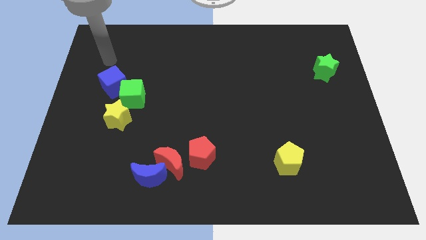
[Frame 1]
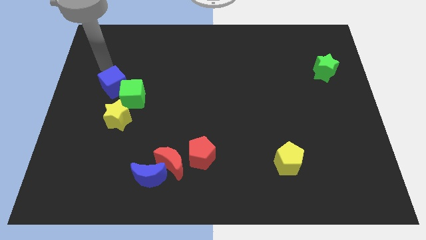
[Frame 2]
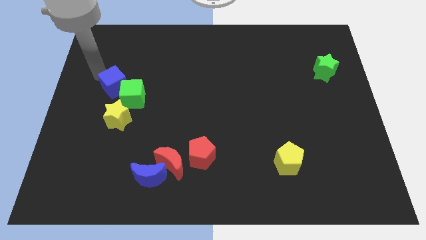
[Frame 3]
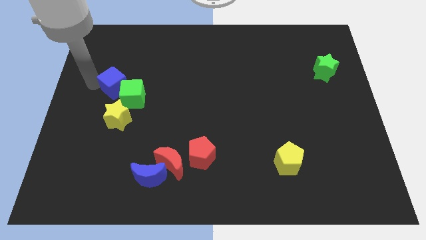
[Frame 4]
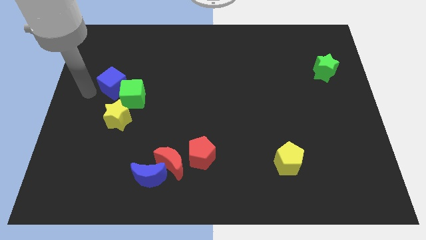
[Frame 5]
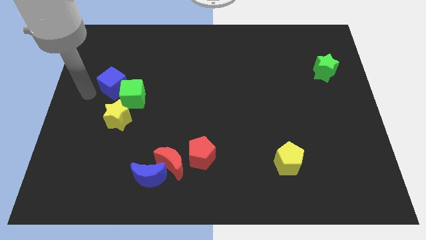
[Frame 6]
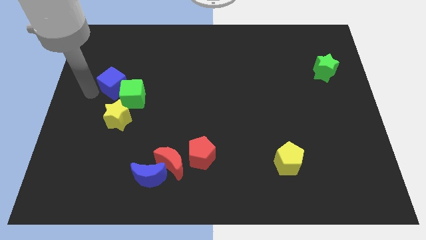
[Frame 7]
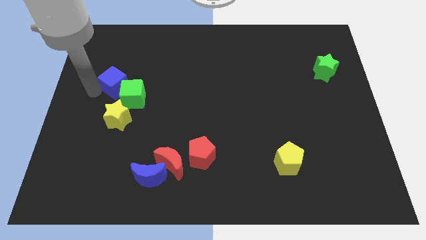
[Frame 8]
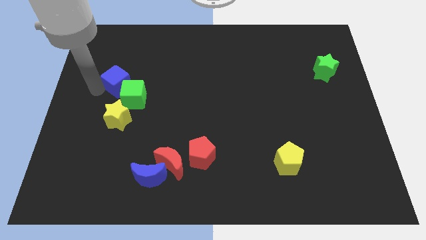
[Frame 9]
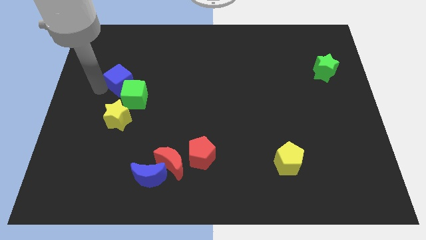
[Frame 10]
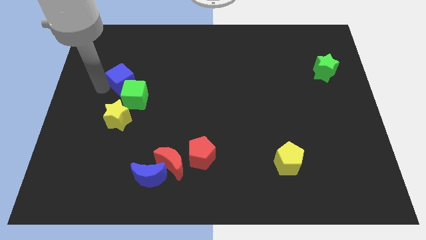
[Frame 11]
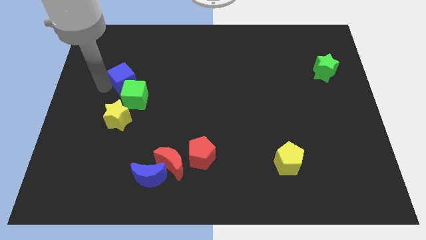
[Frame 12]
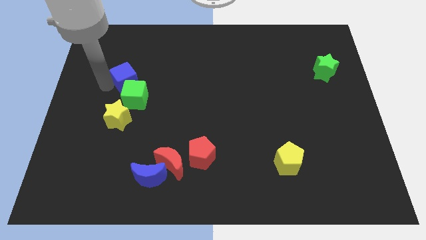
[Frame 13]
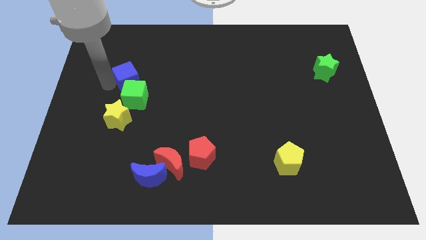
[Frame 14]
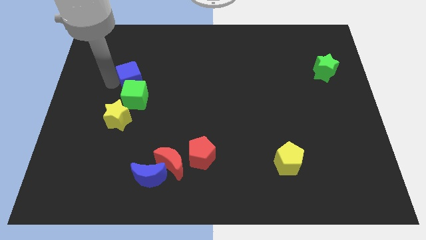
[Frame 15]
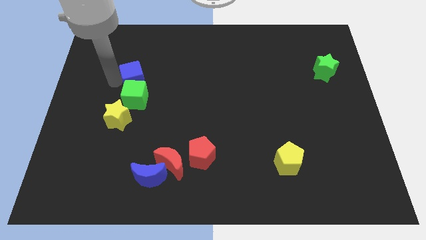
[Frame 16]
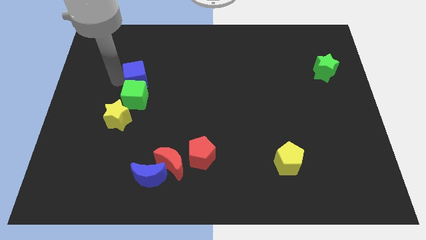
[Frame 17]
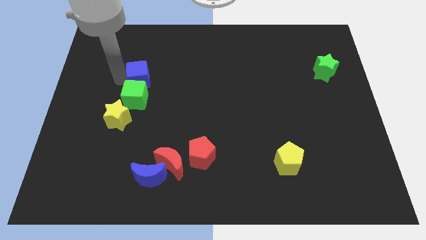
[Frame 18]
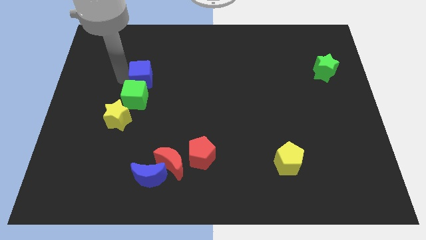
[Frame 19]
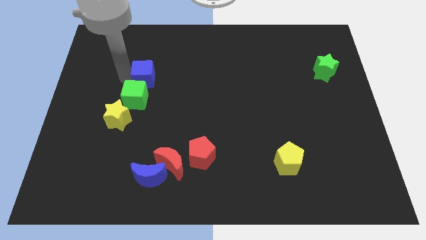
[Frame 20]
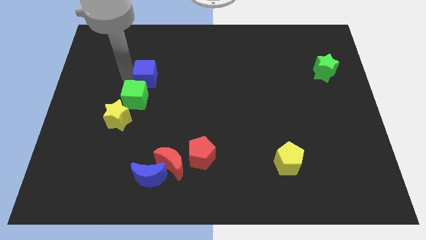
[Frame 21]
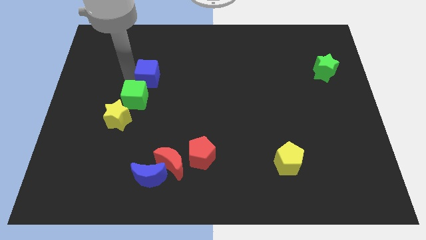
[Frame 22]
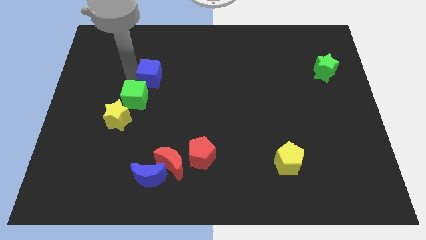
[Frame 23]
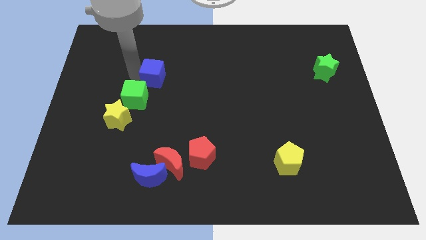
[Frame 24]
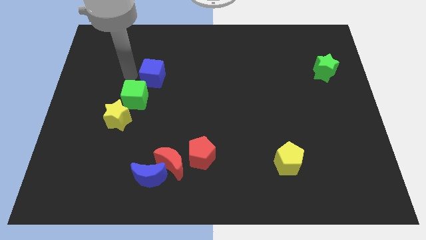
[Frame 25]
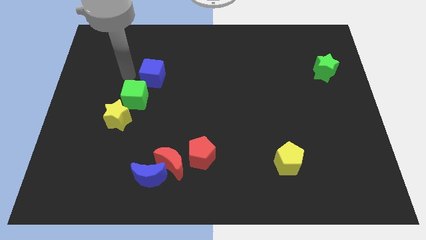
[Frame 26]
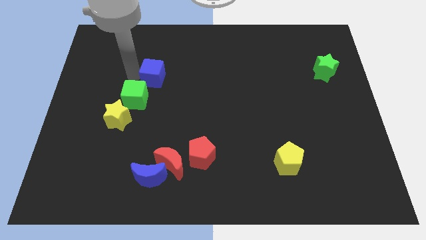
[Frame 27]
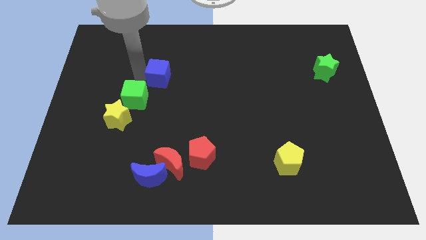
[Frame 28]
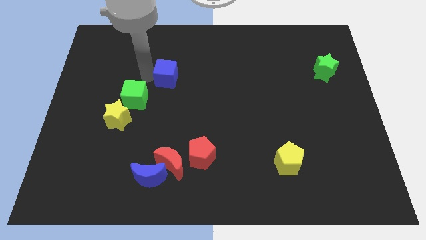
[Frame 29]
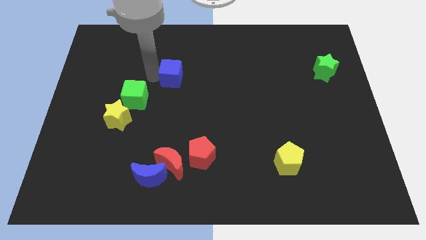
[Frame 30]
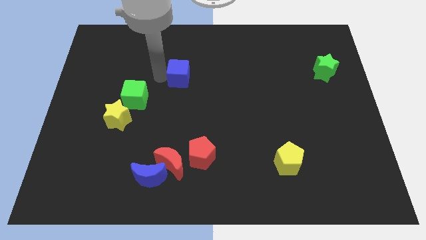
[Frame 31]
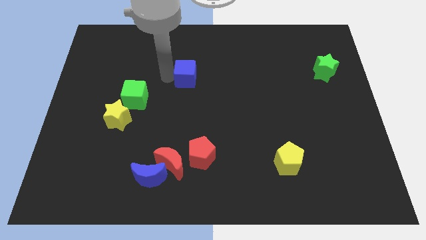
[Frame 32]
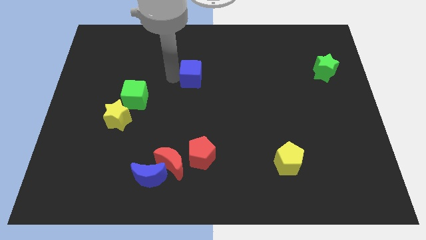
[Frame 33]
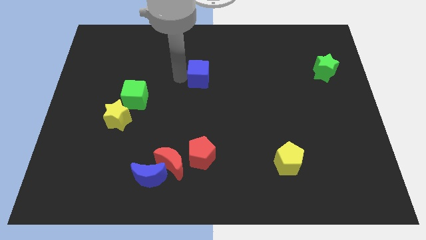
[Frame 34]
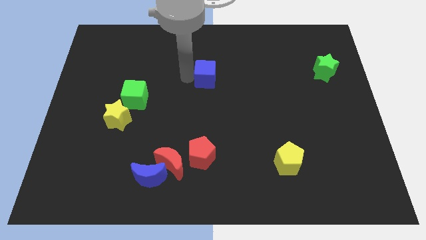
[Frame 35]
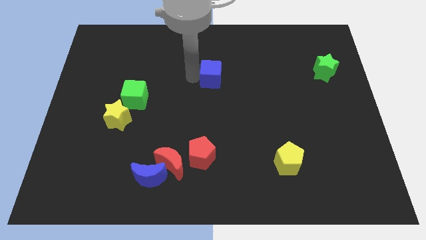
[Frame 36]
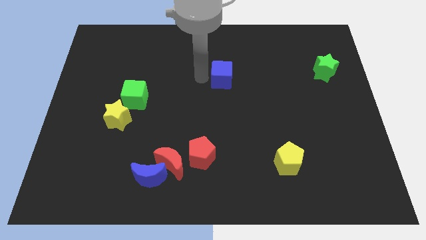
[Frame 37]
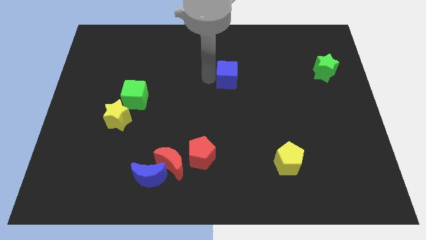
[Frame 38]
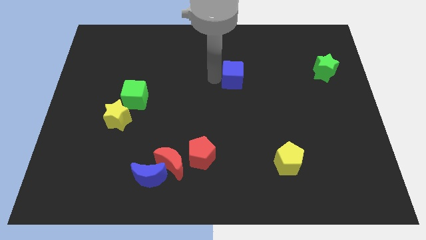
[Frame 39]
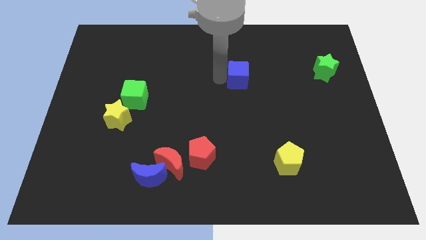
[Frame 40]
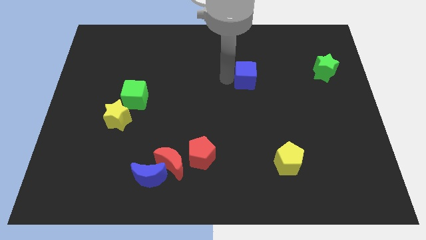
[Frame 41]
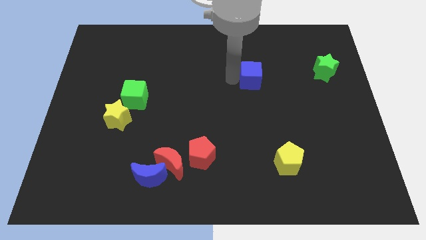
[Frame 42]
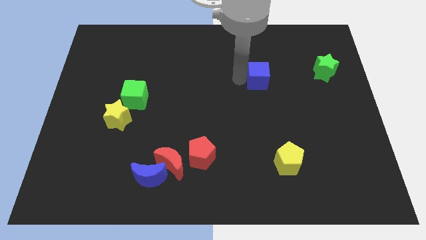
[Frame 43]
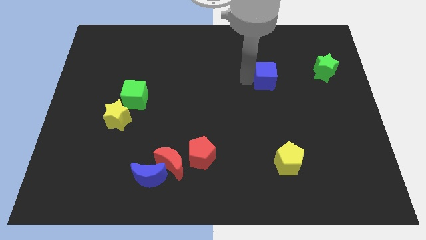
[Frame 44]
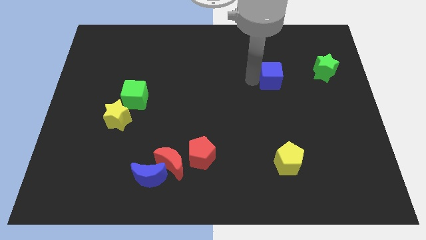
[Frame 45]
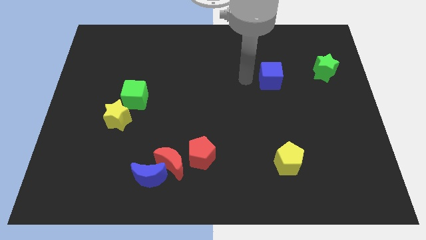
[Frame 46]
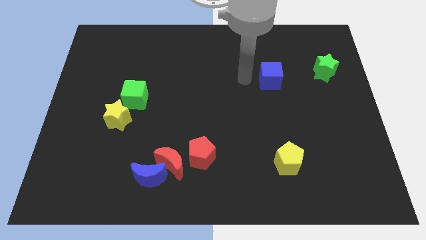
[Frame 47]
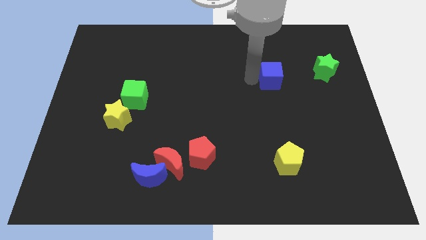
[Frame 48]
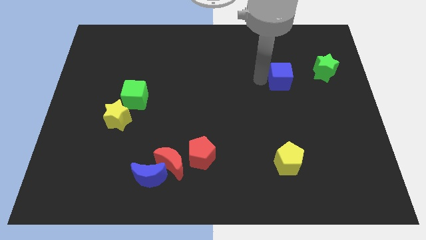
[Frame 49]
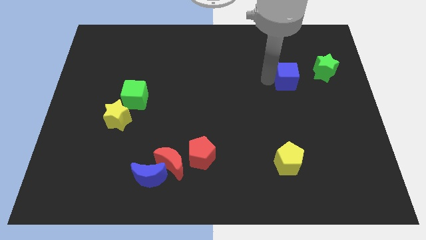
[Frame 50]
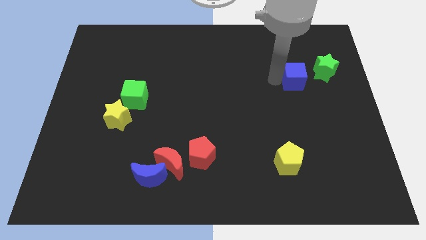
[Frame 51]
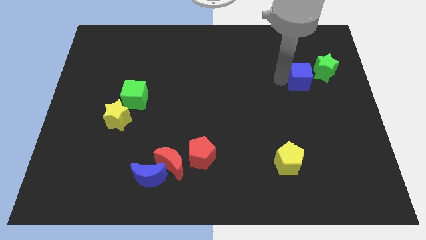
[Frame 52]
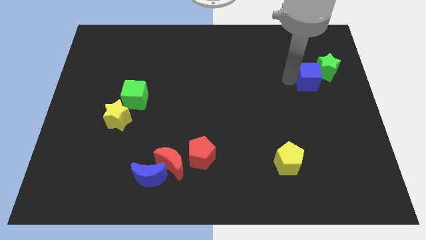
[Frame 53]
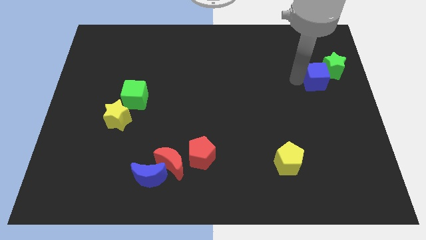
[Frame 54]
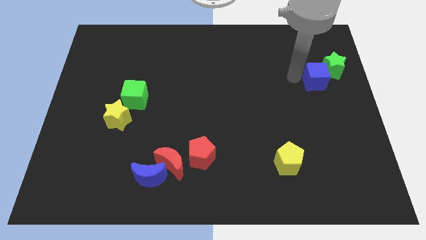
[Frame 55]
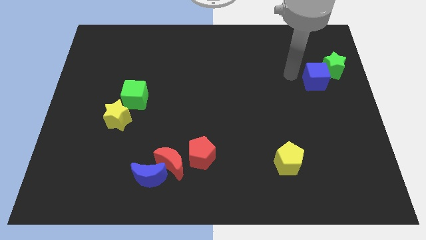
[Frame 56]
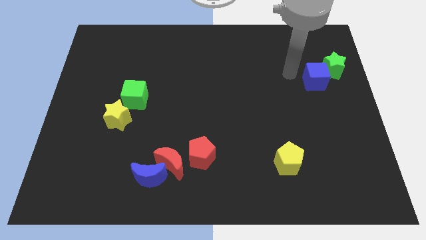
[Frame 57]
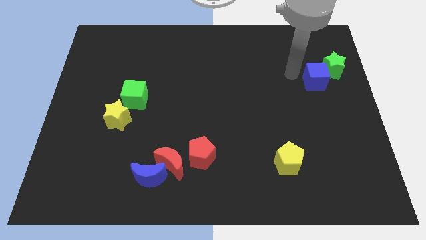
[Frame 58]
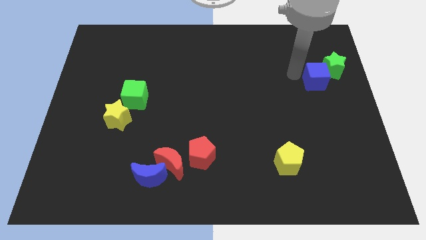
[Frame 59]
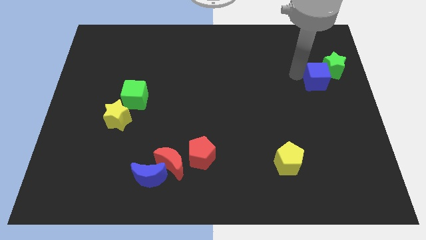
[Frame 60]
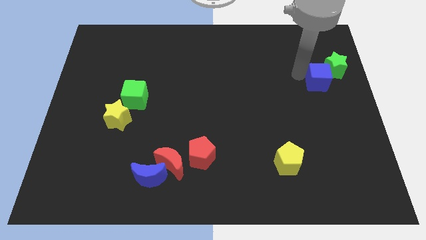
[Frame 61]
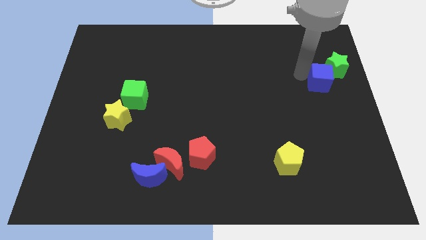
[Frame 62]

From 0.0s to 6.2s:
move the blue cube to the right side of the board
